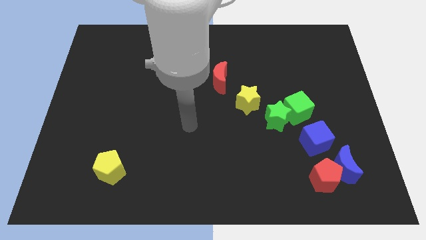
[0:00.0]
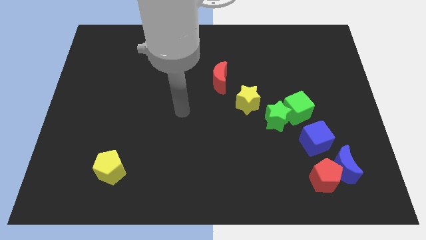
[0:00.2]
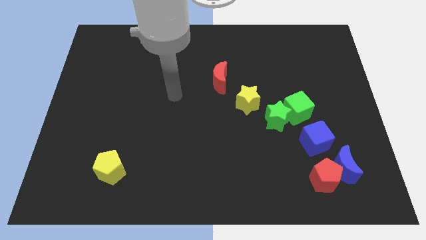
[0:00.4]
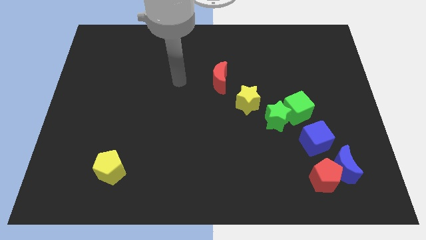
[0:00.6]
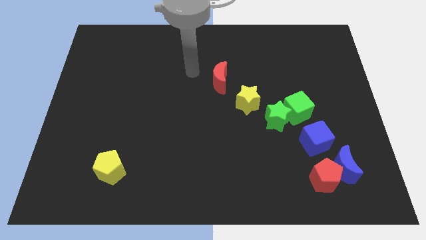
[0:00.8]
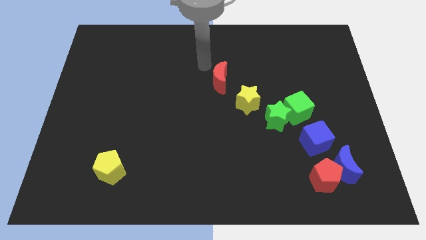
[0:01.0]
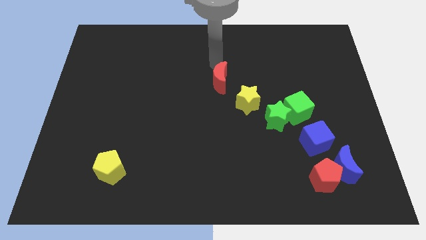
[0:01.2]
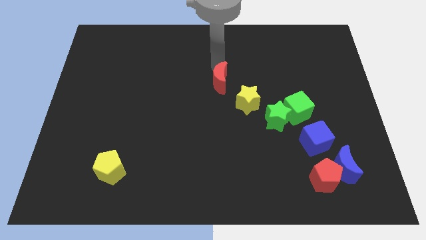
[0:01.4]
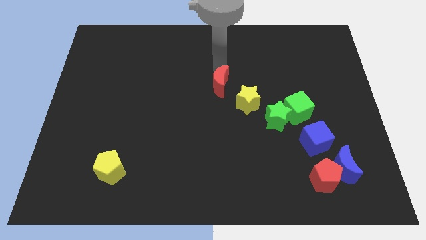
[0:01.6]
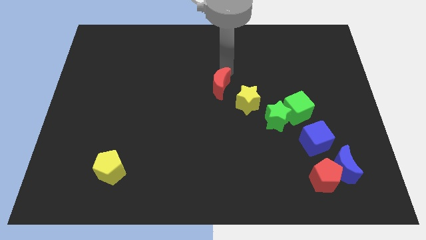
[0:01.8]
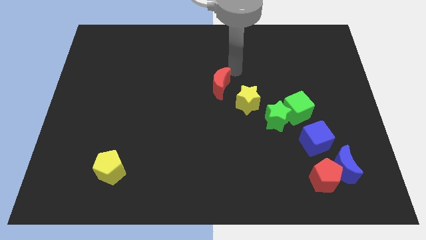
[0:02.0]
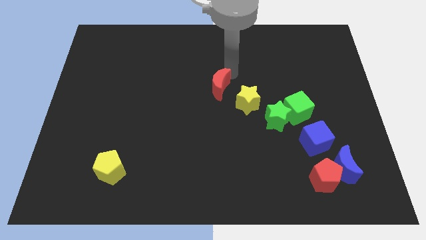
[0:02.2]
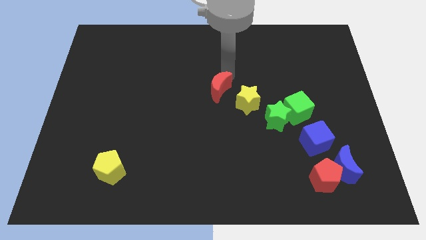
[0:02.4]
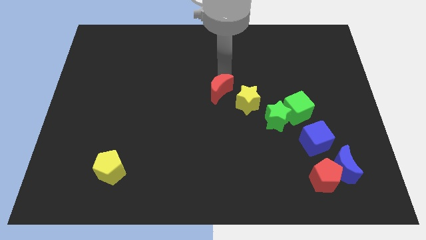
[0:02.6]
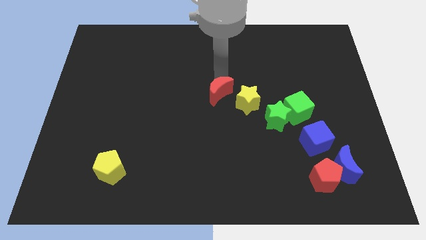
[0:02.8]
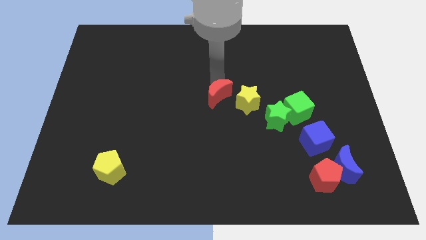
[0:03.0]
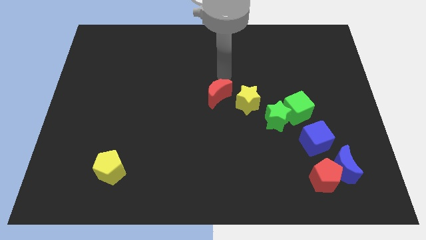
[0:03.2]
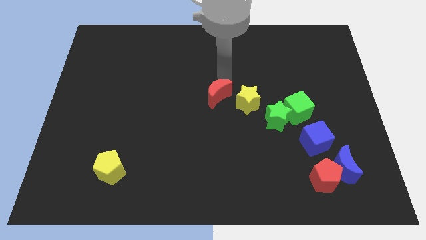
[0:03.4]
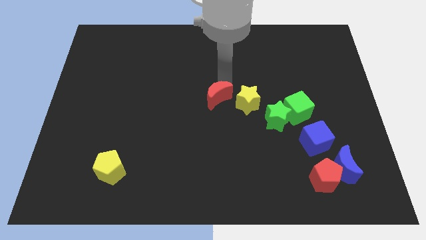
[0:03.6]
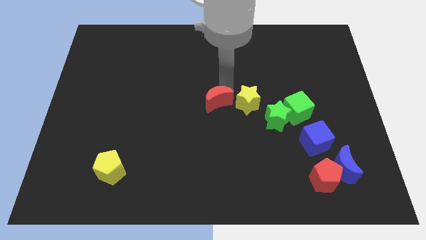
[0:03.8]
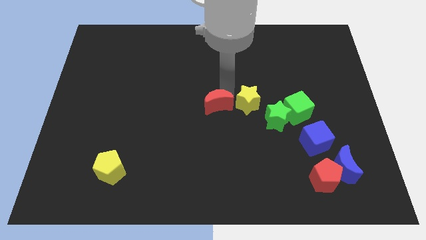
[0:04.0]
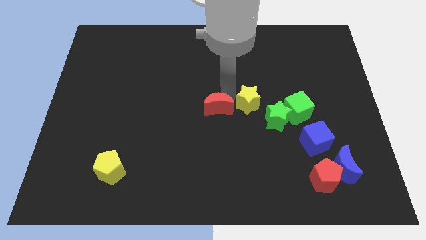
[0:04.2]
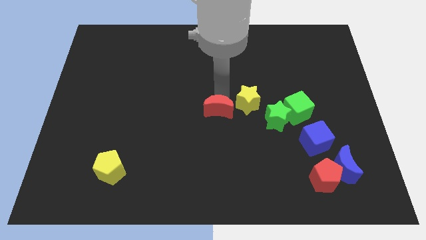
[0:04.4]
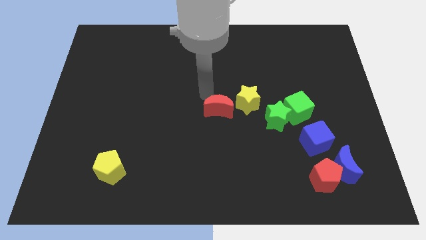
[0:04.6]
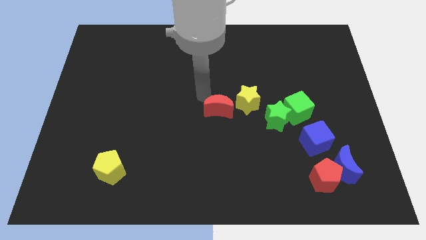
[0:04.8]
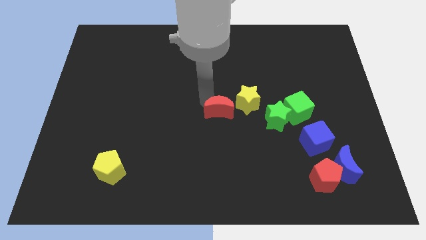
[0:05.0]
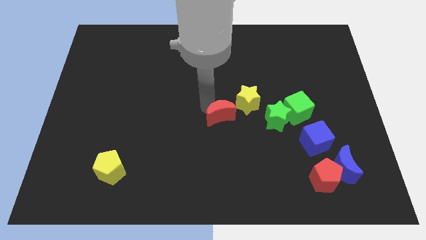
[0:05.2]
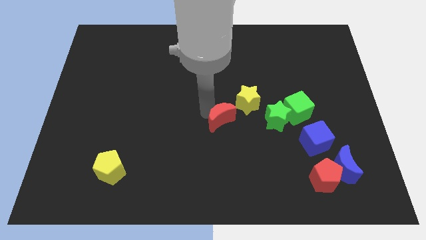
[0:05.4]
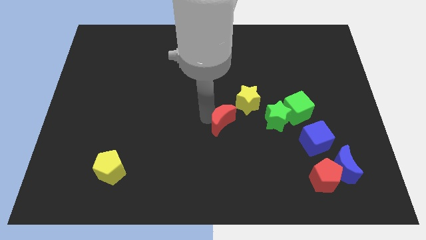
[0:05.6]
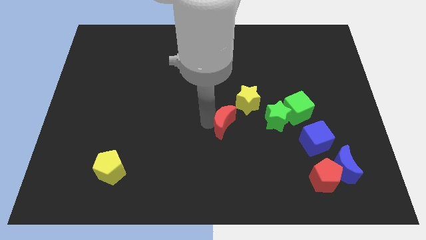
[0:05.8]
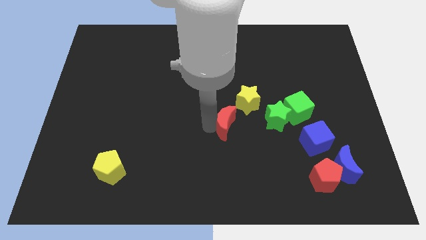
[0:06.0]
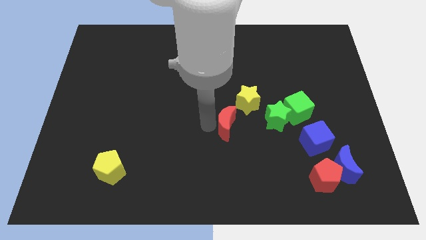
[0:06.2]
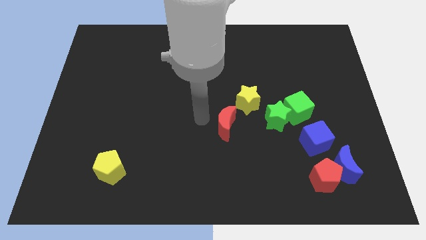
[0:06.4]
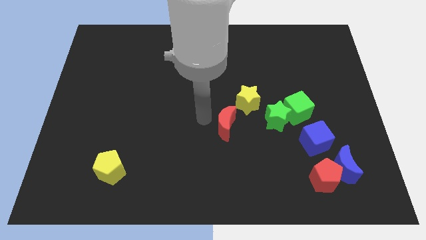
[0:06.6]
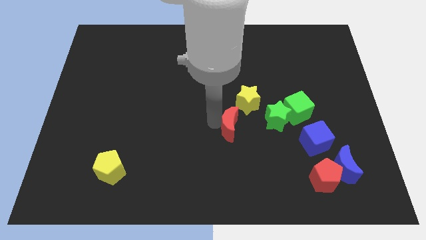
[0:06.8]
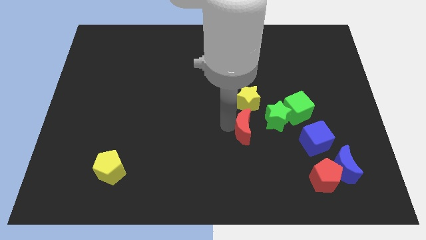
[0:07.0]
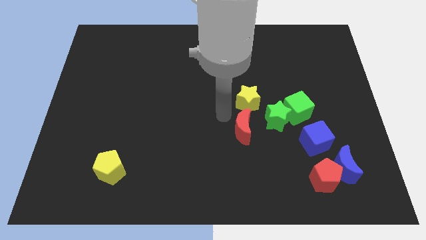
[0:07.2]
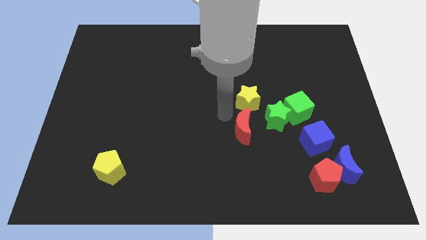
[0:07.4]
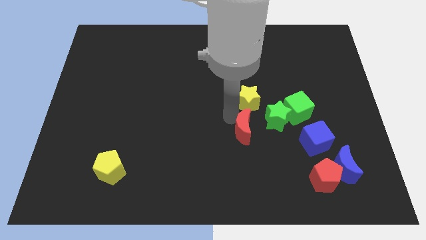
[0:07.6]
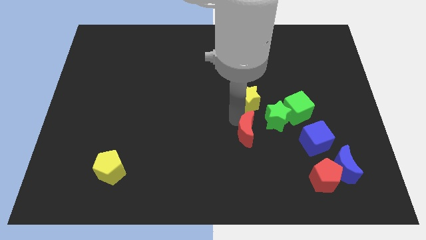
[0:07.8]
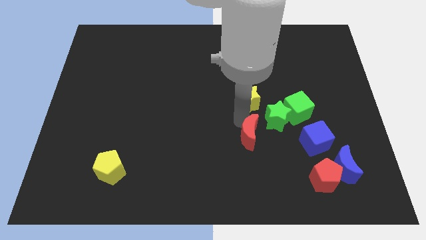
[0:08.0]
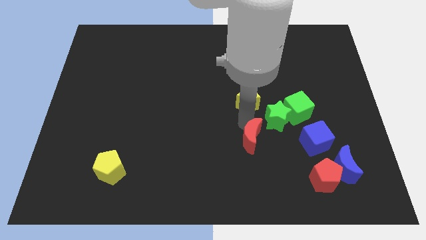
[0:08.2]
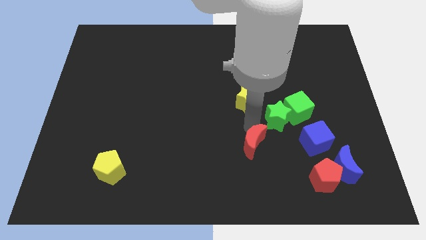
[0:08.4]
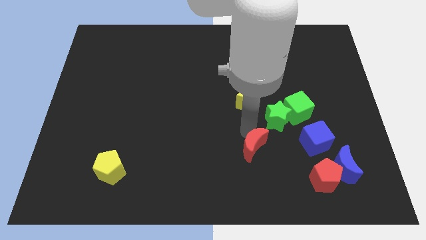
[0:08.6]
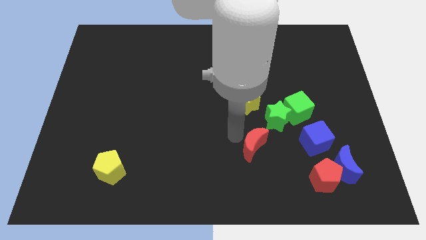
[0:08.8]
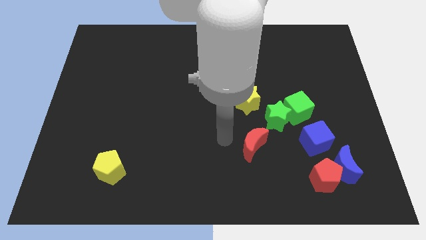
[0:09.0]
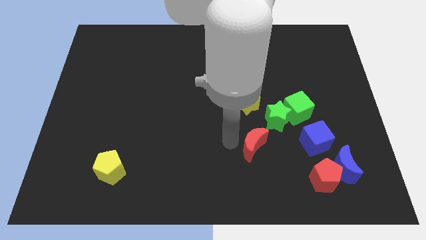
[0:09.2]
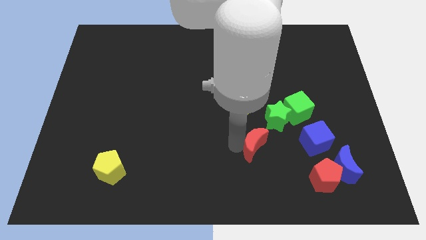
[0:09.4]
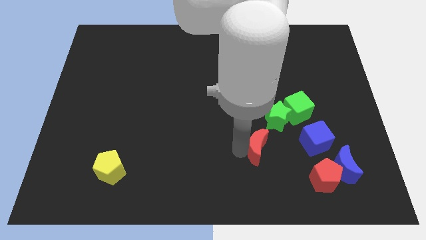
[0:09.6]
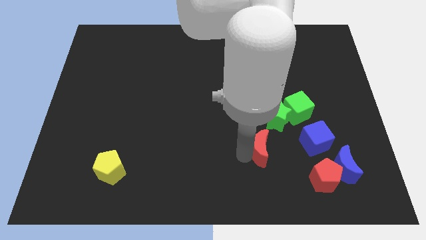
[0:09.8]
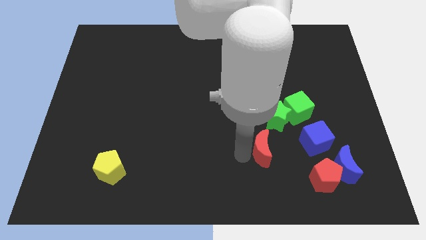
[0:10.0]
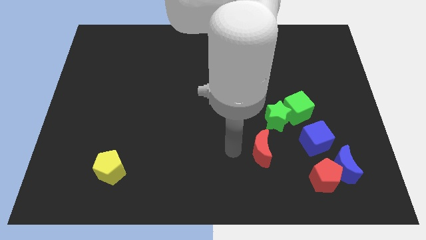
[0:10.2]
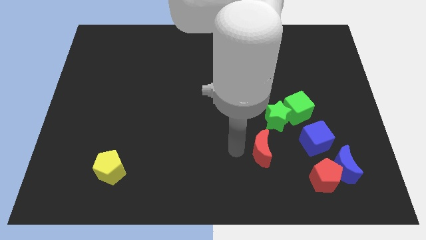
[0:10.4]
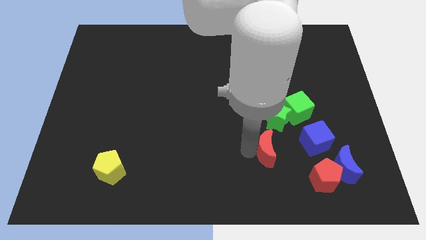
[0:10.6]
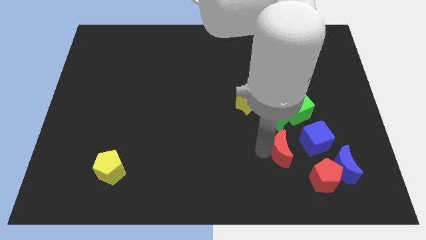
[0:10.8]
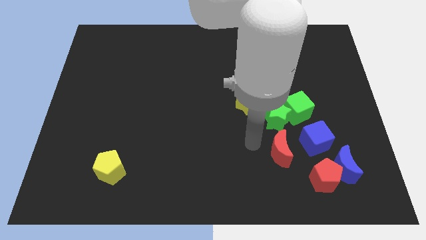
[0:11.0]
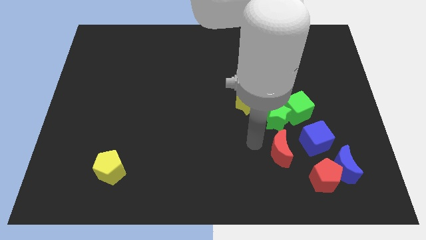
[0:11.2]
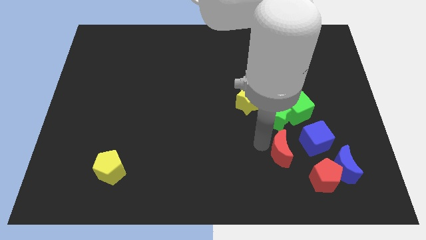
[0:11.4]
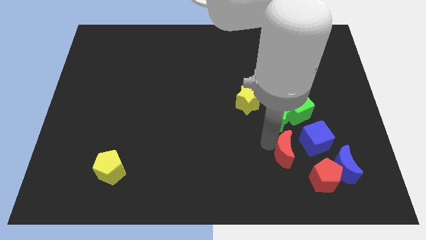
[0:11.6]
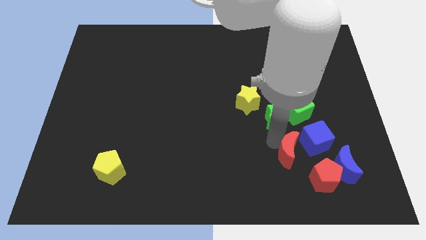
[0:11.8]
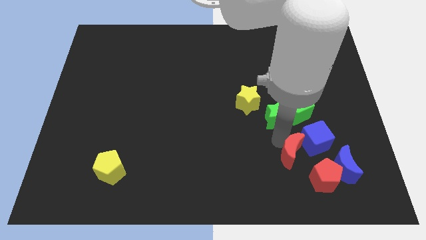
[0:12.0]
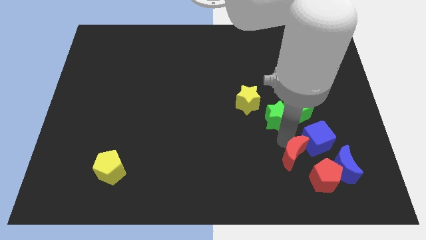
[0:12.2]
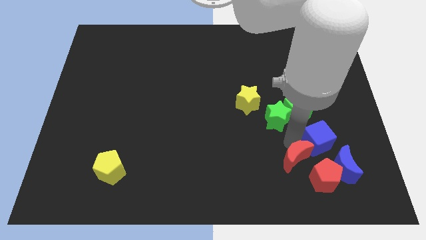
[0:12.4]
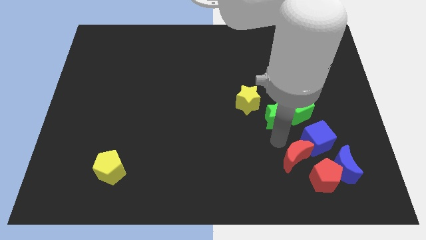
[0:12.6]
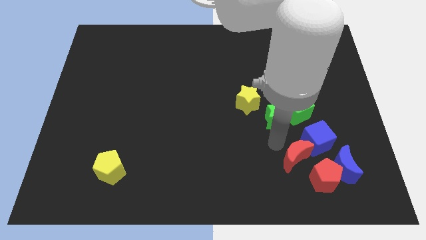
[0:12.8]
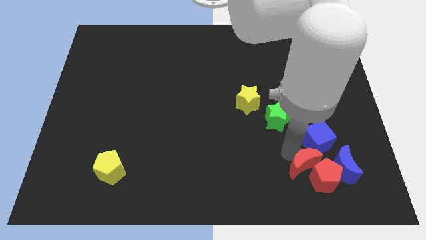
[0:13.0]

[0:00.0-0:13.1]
move the red moon close to the red pentagon

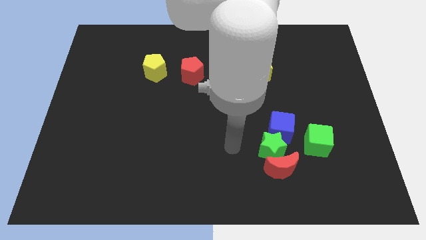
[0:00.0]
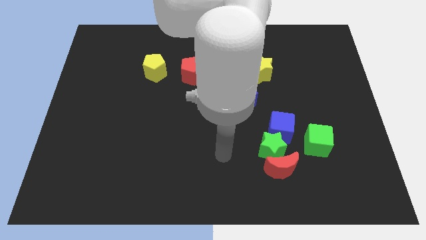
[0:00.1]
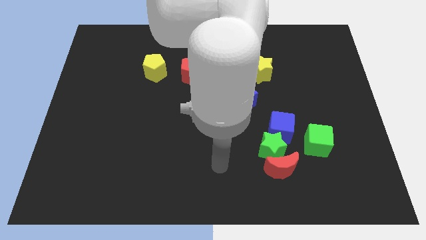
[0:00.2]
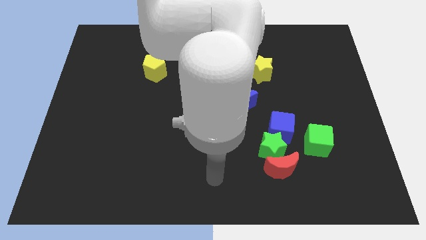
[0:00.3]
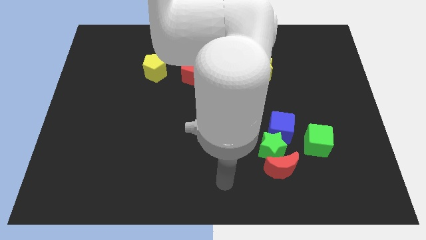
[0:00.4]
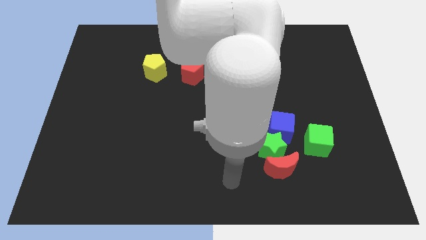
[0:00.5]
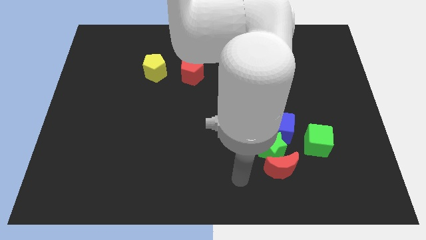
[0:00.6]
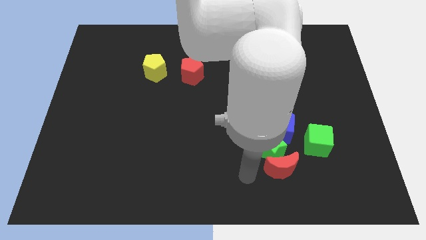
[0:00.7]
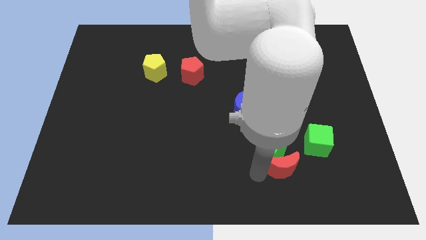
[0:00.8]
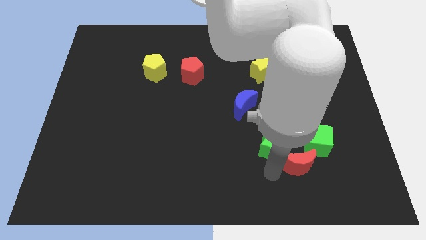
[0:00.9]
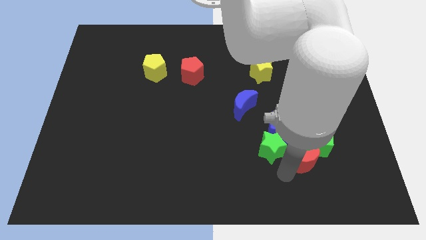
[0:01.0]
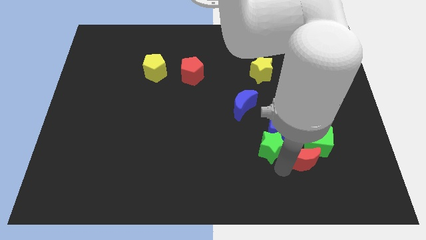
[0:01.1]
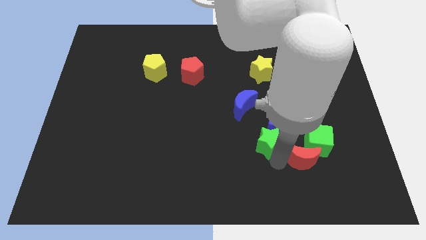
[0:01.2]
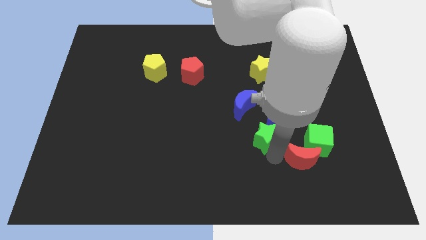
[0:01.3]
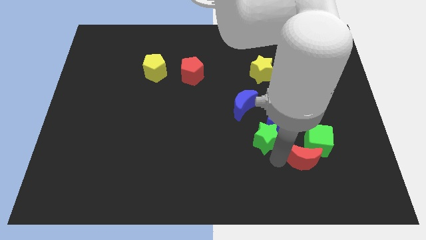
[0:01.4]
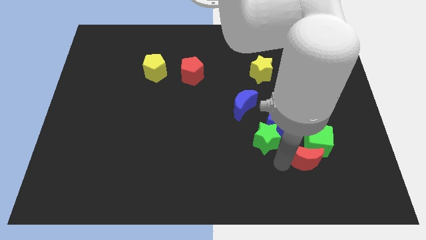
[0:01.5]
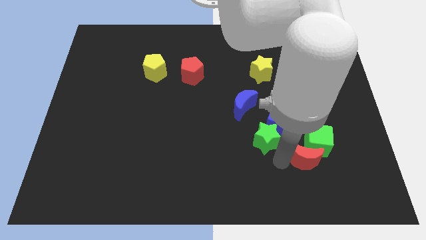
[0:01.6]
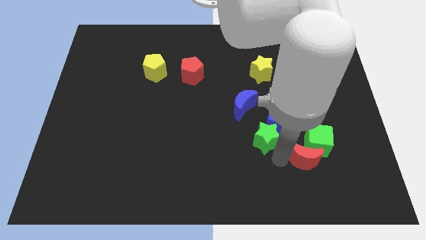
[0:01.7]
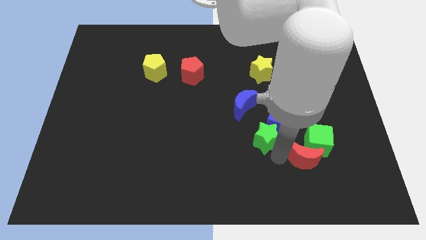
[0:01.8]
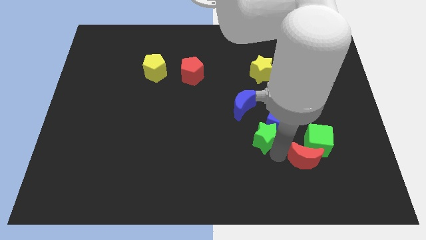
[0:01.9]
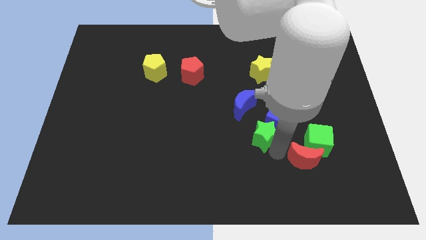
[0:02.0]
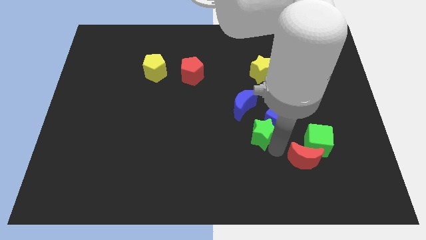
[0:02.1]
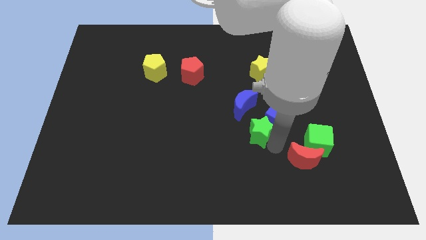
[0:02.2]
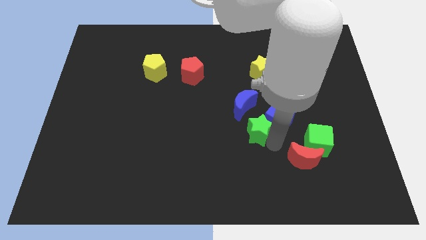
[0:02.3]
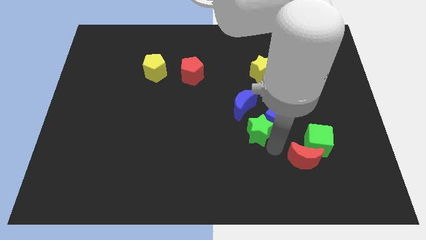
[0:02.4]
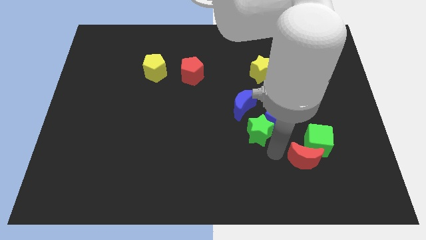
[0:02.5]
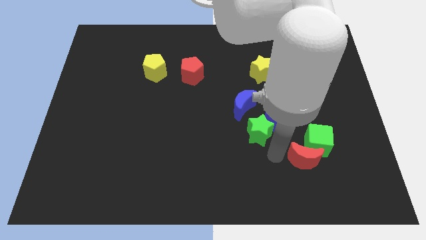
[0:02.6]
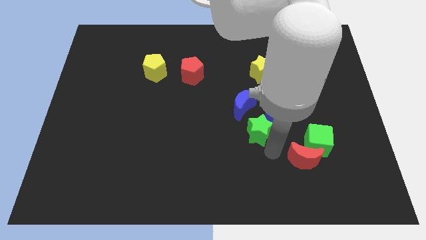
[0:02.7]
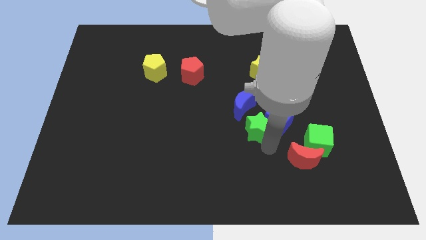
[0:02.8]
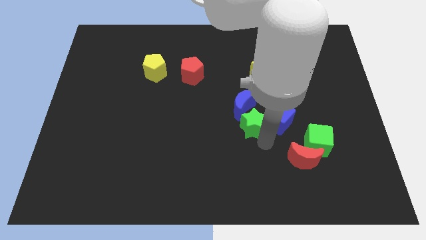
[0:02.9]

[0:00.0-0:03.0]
move the green star close to the blue moon
